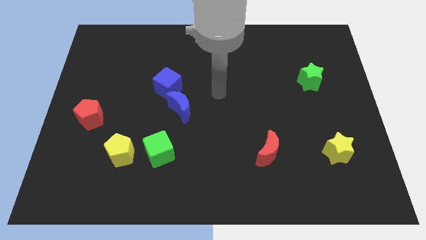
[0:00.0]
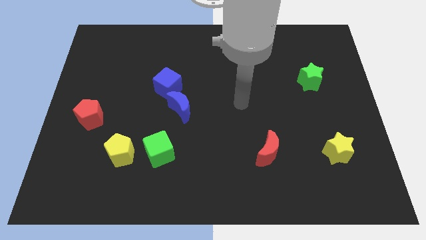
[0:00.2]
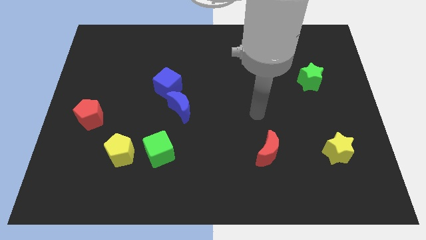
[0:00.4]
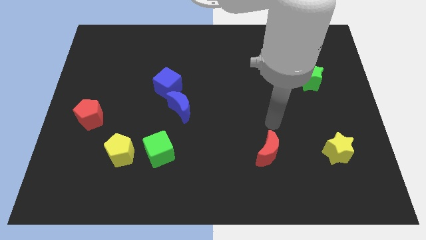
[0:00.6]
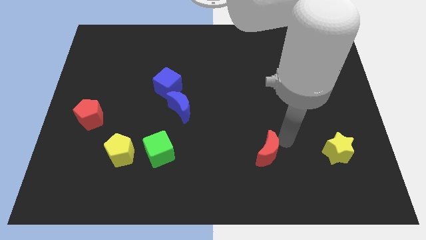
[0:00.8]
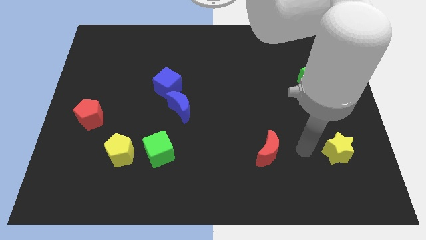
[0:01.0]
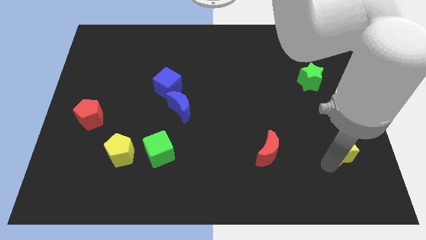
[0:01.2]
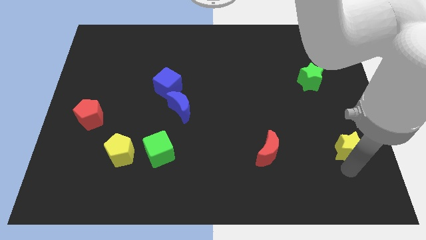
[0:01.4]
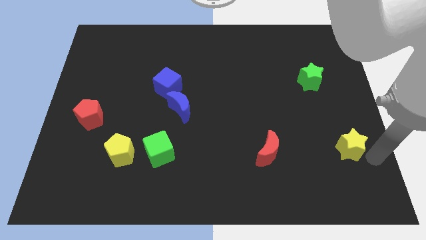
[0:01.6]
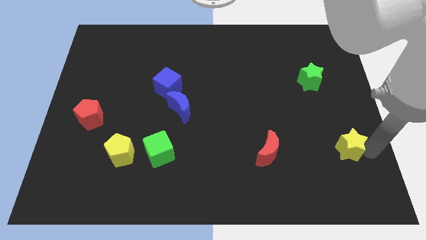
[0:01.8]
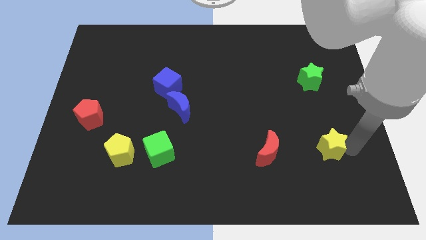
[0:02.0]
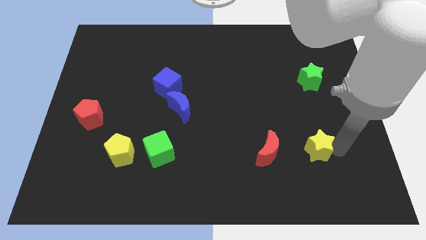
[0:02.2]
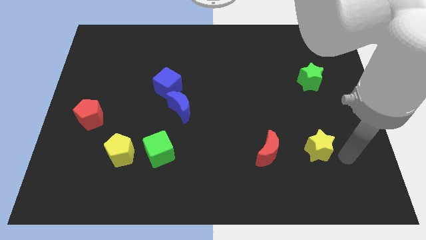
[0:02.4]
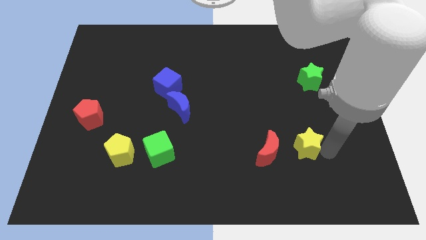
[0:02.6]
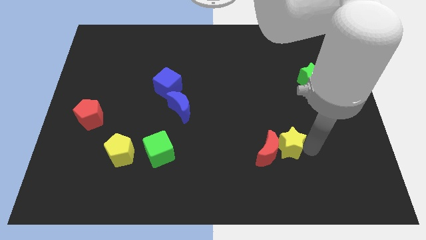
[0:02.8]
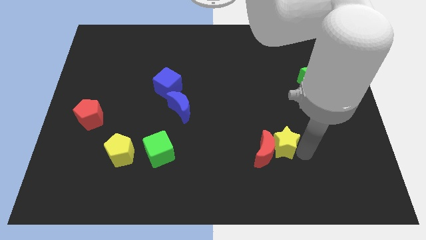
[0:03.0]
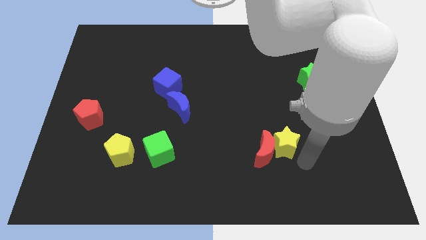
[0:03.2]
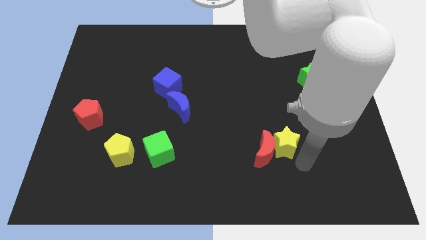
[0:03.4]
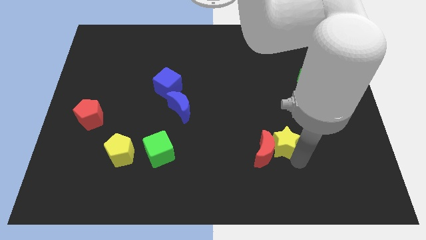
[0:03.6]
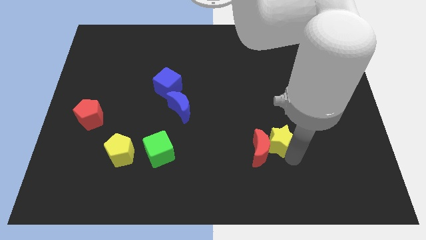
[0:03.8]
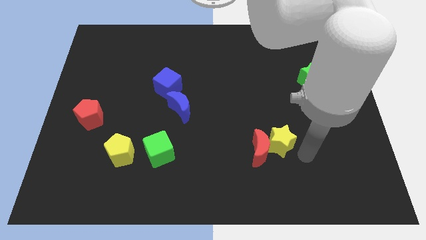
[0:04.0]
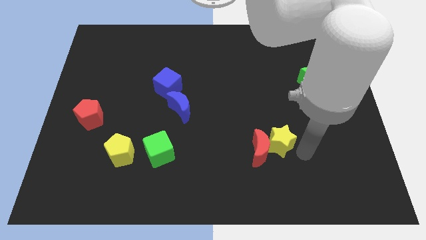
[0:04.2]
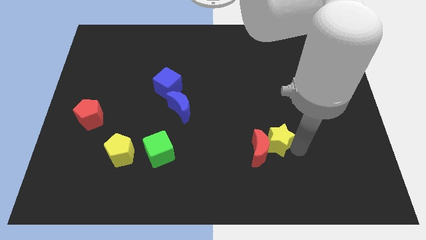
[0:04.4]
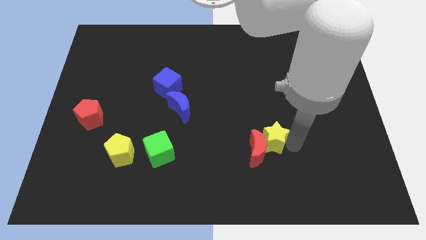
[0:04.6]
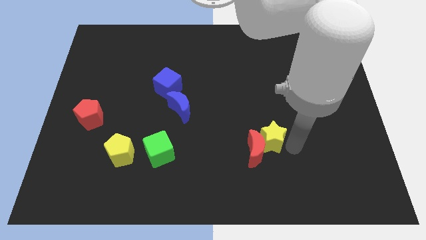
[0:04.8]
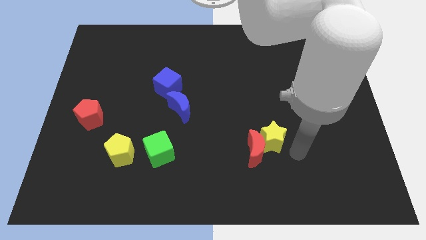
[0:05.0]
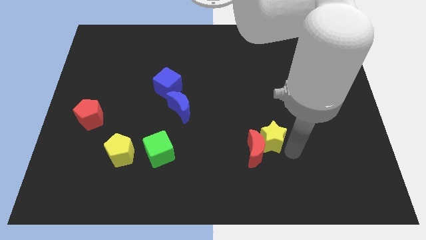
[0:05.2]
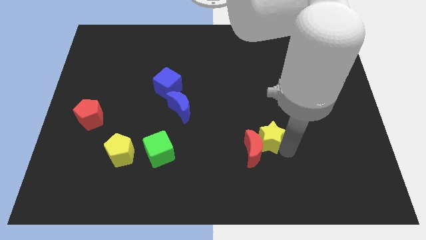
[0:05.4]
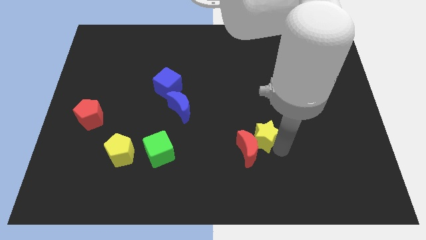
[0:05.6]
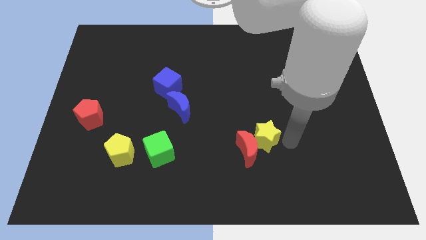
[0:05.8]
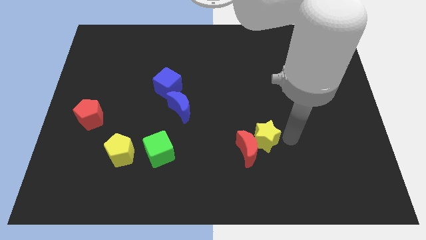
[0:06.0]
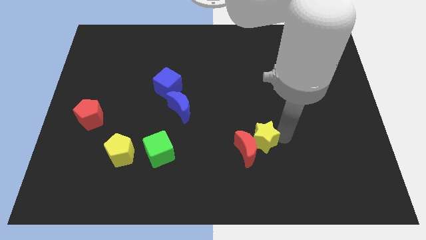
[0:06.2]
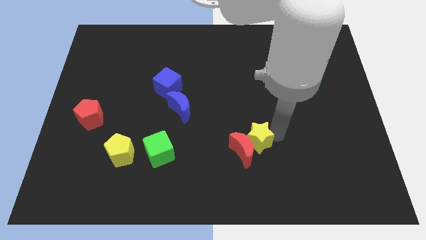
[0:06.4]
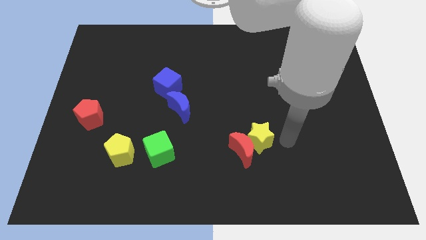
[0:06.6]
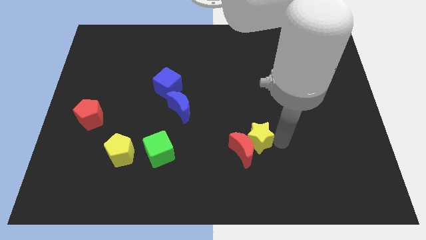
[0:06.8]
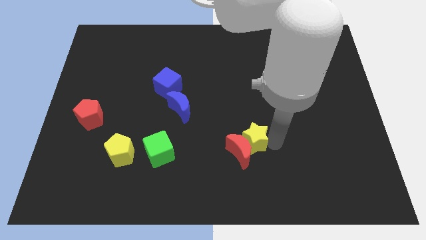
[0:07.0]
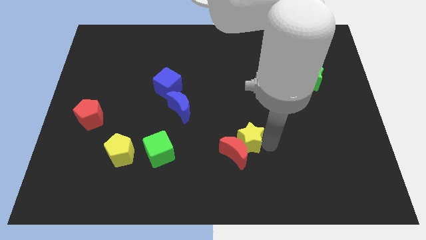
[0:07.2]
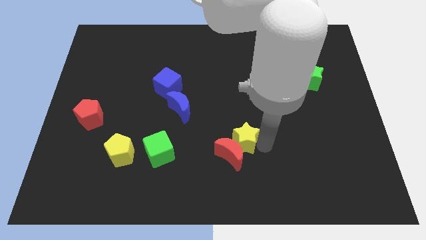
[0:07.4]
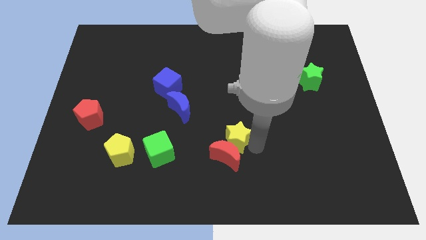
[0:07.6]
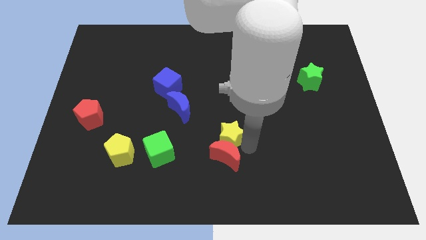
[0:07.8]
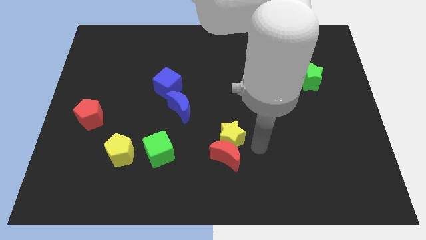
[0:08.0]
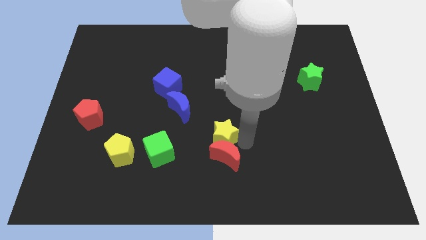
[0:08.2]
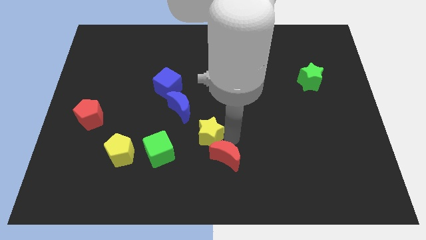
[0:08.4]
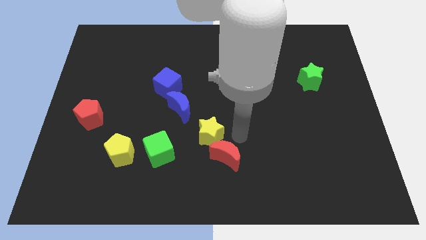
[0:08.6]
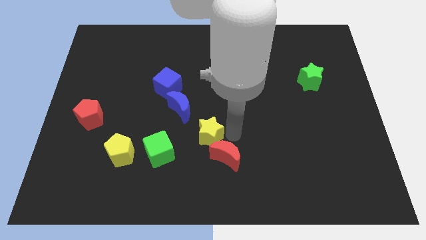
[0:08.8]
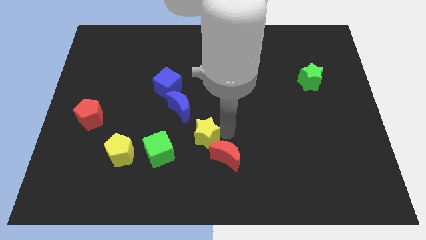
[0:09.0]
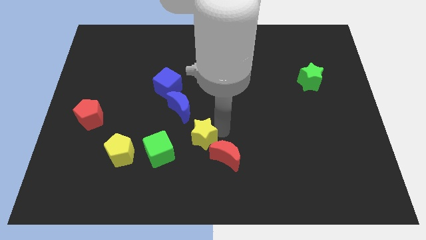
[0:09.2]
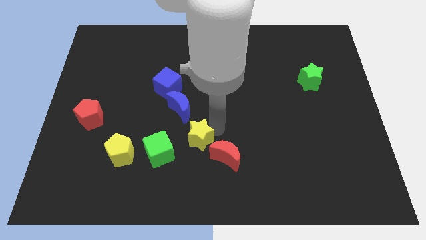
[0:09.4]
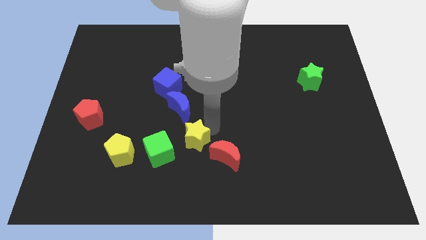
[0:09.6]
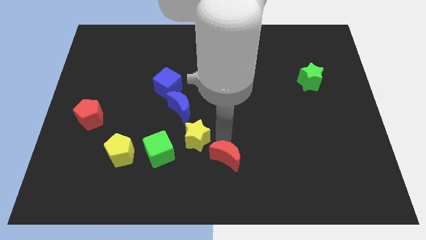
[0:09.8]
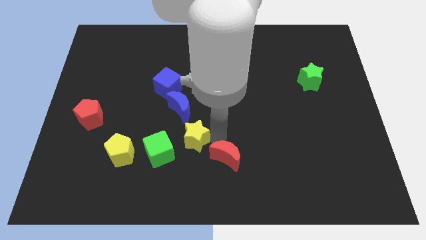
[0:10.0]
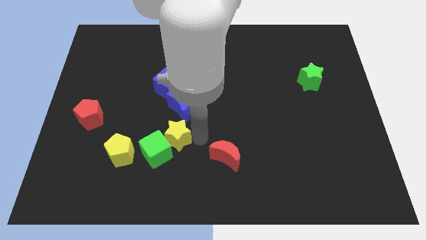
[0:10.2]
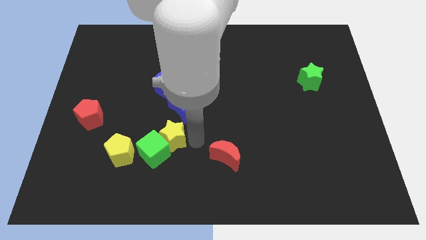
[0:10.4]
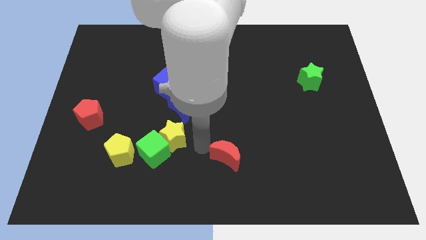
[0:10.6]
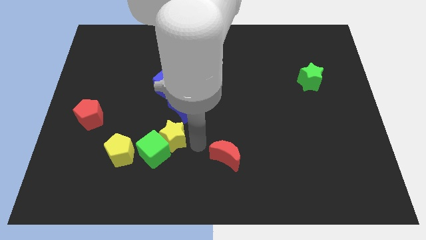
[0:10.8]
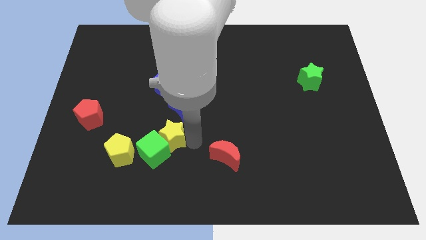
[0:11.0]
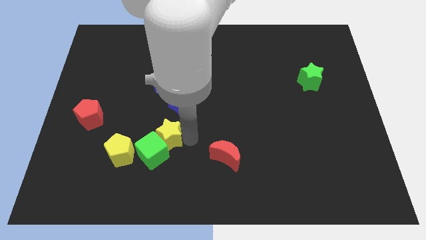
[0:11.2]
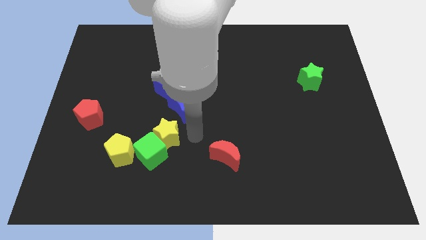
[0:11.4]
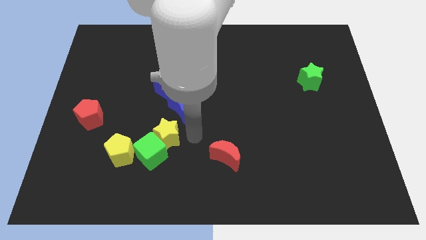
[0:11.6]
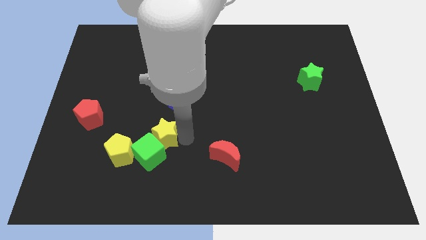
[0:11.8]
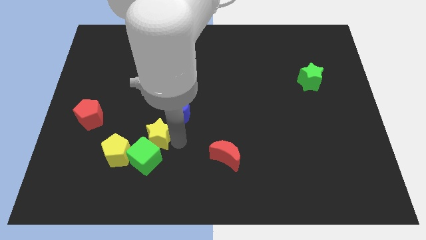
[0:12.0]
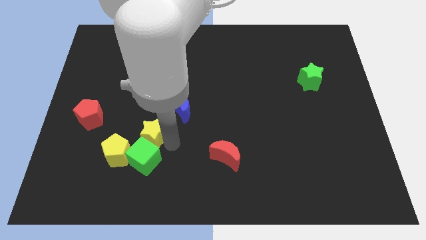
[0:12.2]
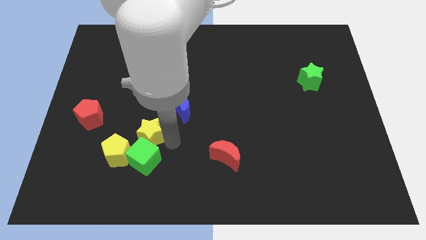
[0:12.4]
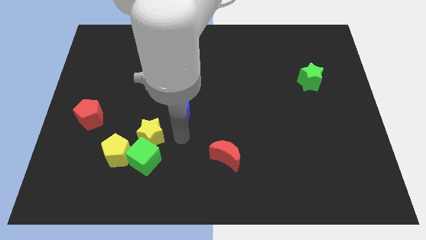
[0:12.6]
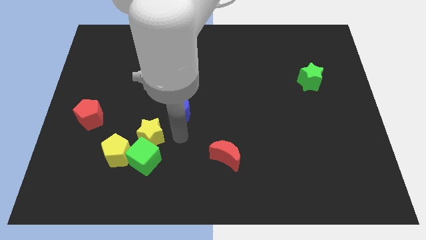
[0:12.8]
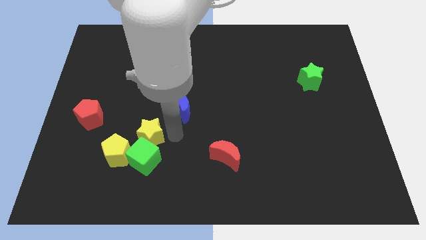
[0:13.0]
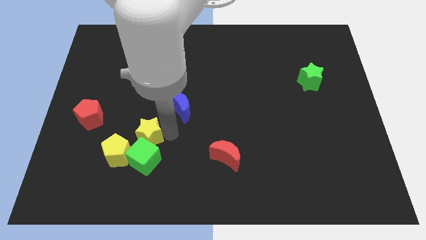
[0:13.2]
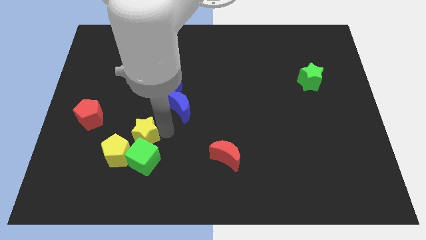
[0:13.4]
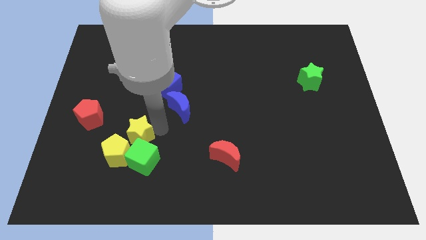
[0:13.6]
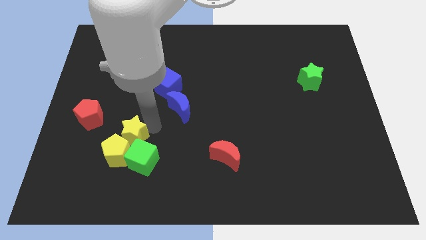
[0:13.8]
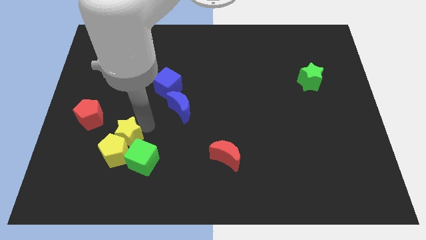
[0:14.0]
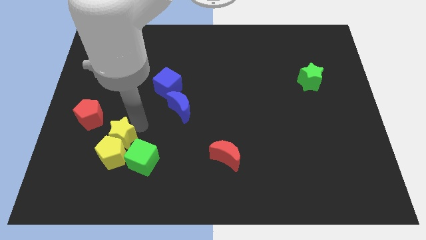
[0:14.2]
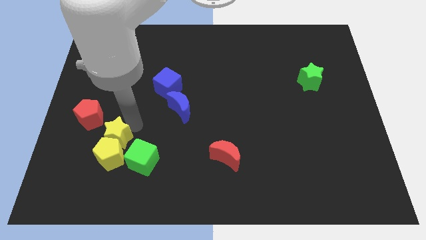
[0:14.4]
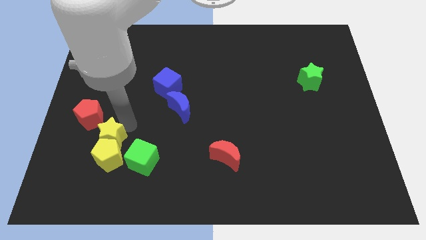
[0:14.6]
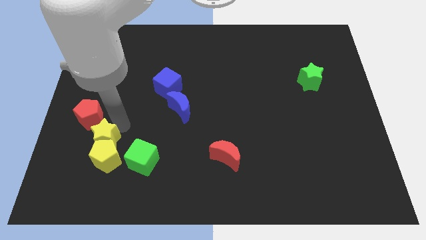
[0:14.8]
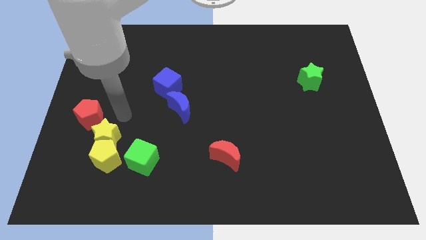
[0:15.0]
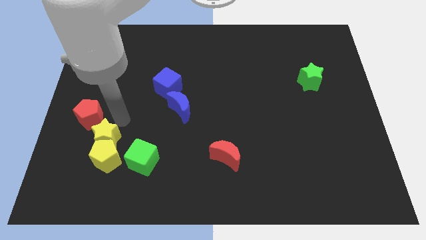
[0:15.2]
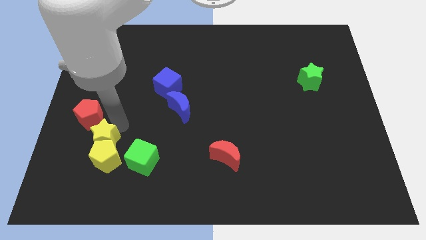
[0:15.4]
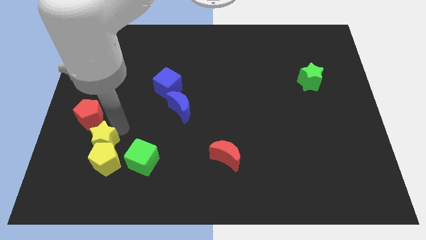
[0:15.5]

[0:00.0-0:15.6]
push the yellow star just left of the green cube
